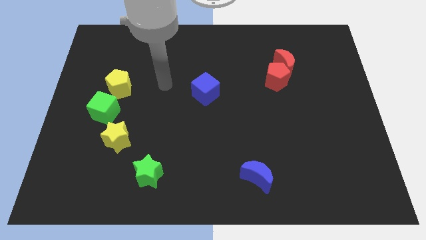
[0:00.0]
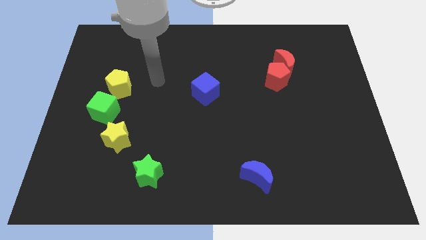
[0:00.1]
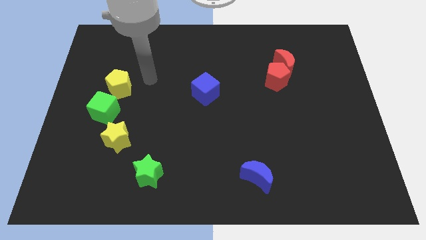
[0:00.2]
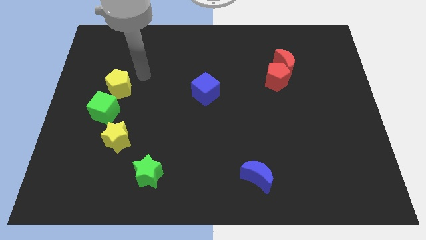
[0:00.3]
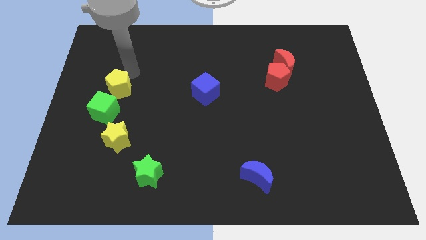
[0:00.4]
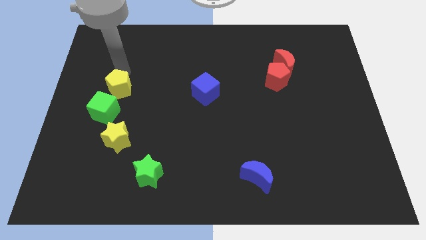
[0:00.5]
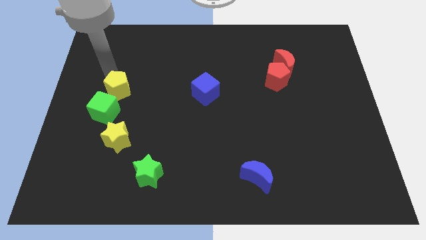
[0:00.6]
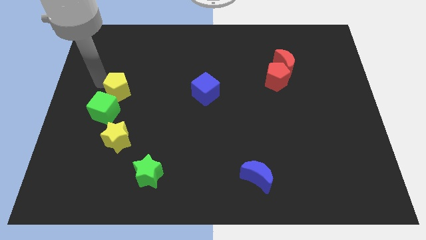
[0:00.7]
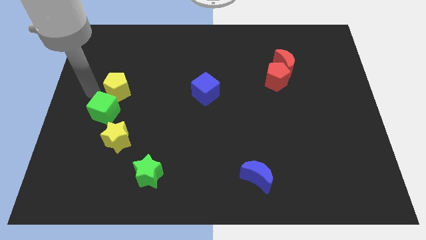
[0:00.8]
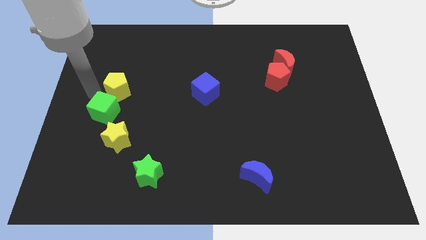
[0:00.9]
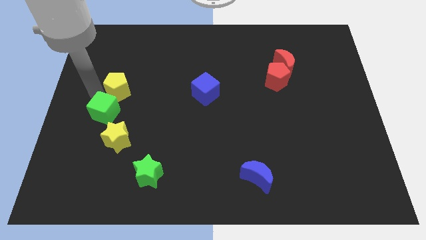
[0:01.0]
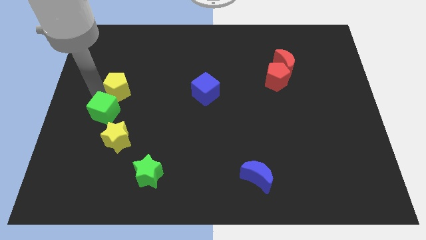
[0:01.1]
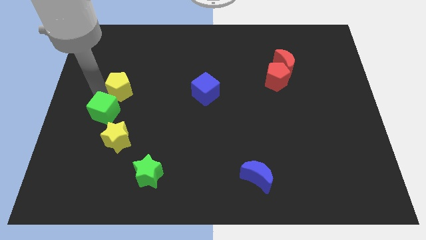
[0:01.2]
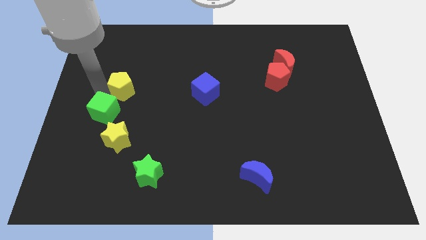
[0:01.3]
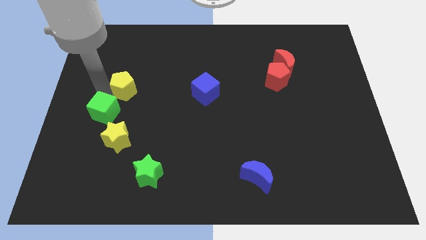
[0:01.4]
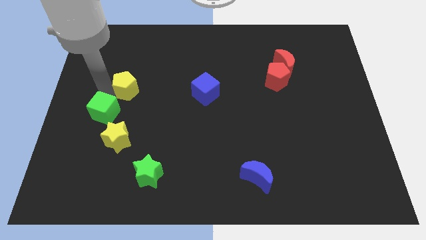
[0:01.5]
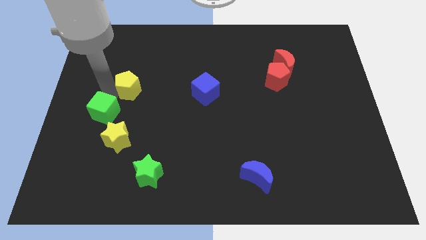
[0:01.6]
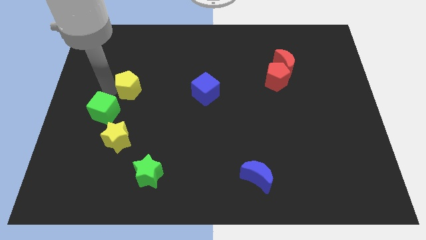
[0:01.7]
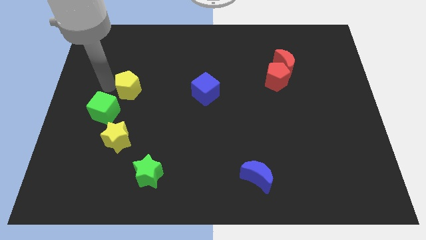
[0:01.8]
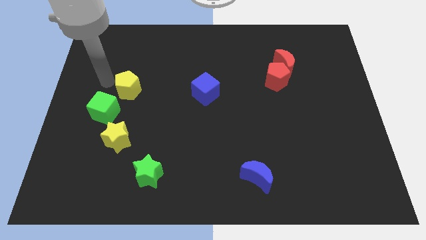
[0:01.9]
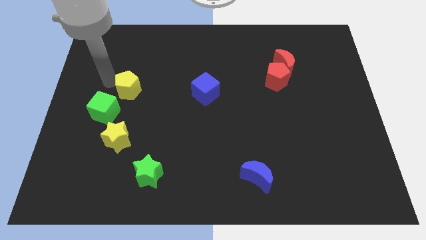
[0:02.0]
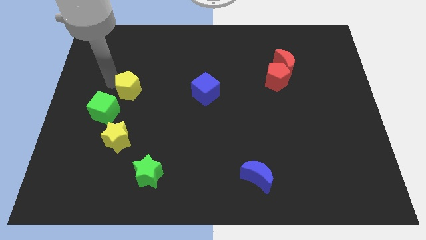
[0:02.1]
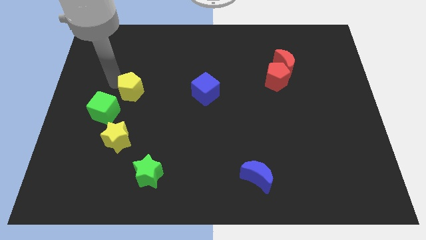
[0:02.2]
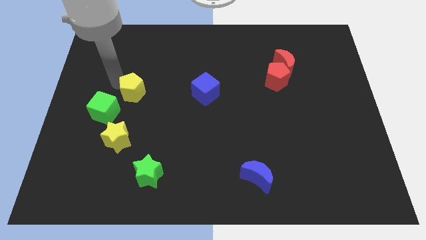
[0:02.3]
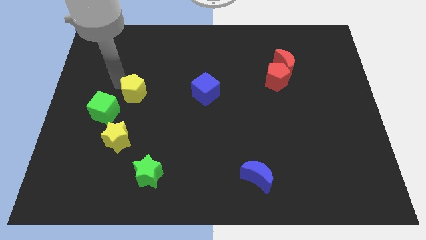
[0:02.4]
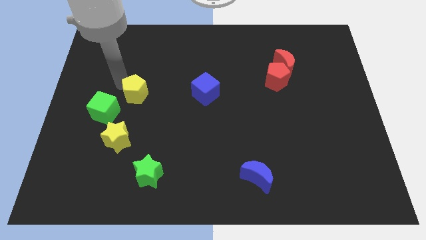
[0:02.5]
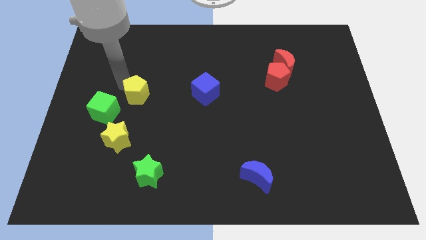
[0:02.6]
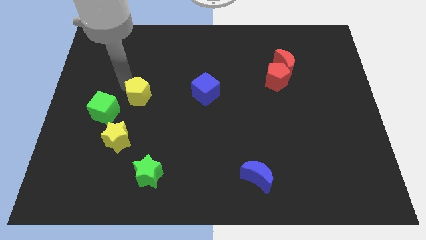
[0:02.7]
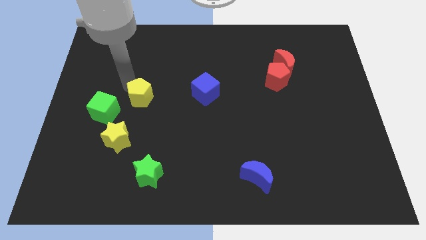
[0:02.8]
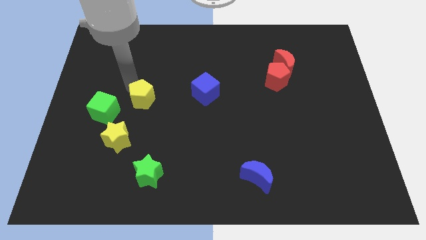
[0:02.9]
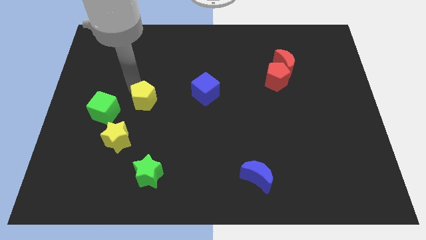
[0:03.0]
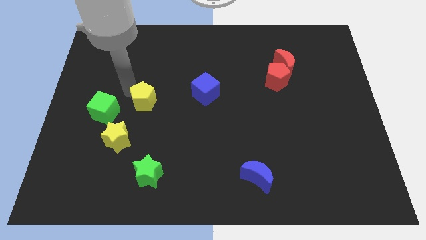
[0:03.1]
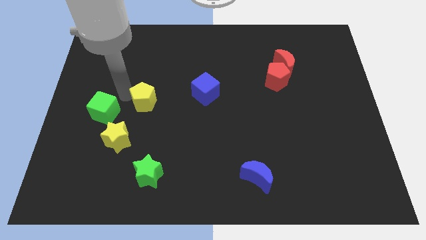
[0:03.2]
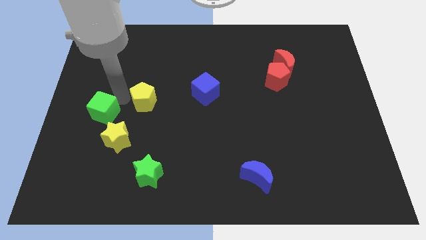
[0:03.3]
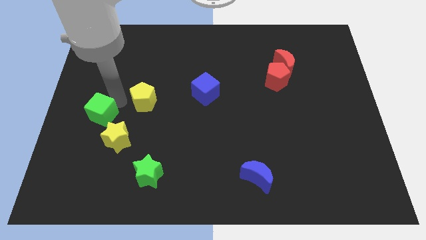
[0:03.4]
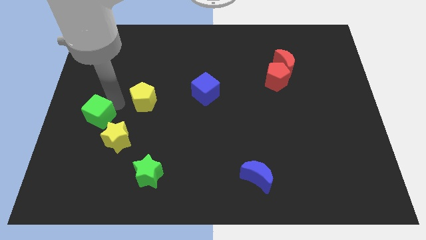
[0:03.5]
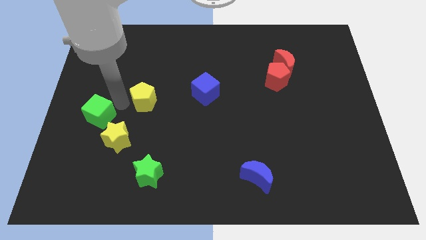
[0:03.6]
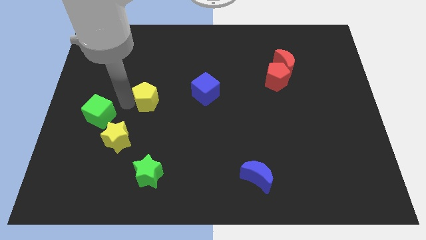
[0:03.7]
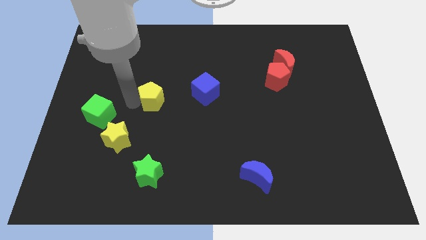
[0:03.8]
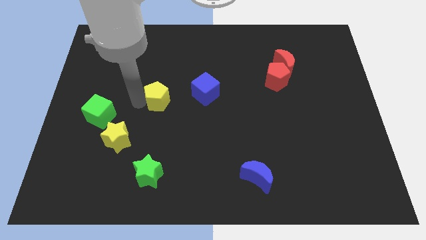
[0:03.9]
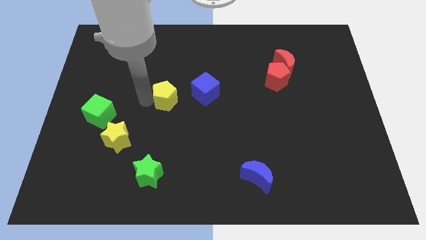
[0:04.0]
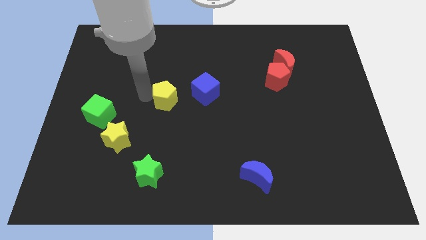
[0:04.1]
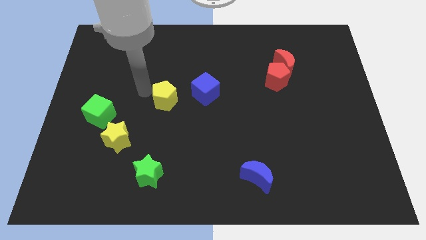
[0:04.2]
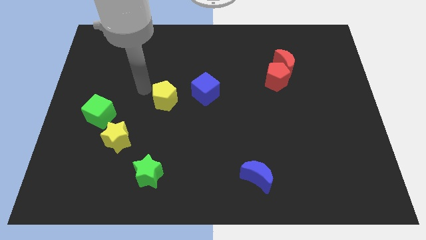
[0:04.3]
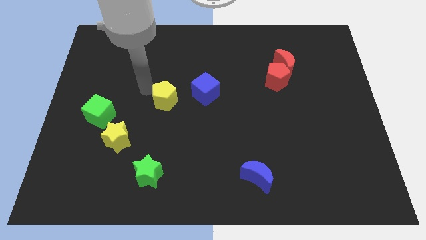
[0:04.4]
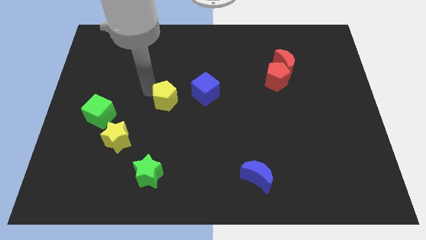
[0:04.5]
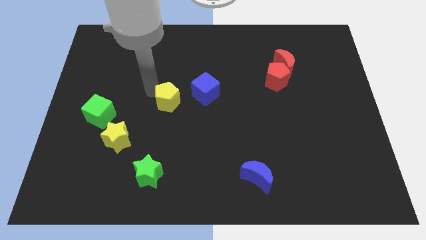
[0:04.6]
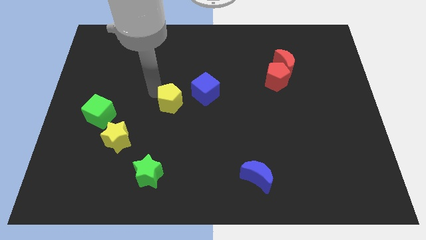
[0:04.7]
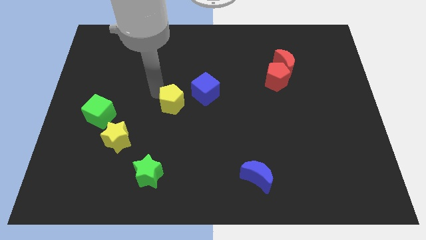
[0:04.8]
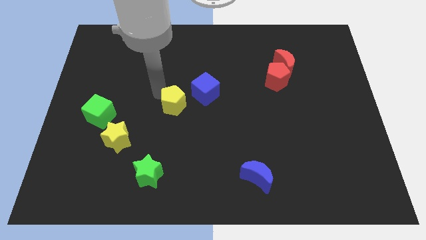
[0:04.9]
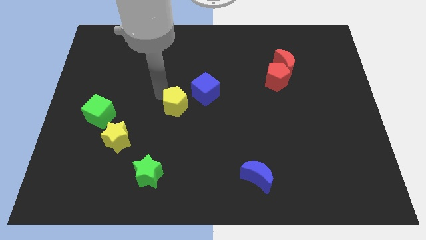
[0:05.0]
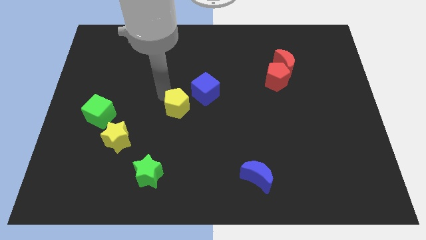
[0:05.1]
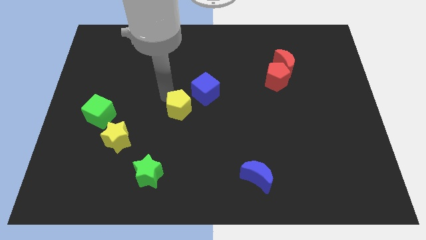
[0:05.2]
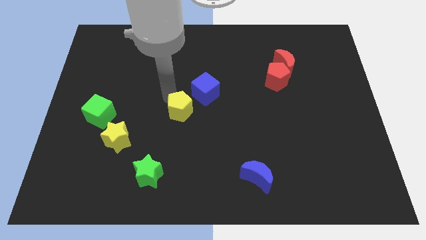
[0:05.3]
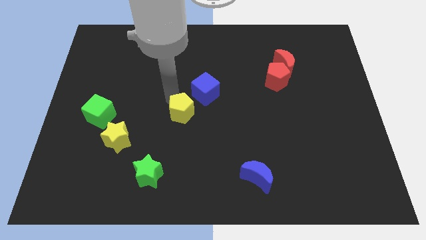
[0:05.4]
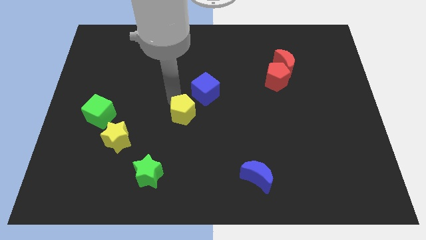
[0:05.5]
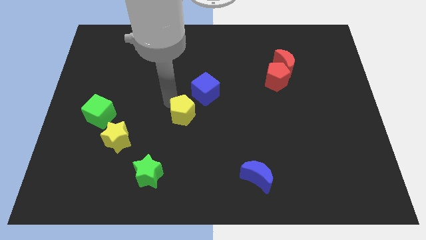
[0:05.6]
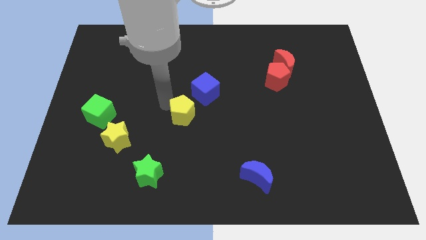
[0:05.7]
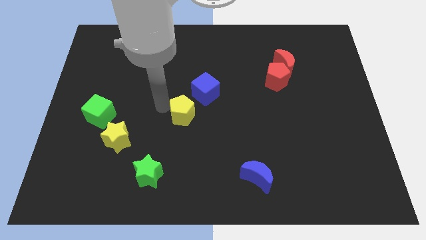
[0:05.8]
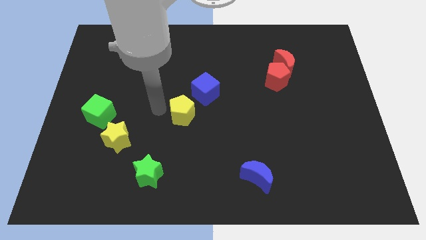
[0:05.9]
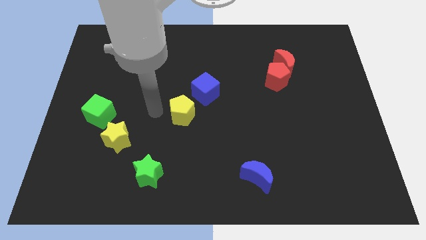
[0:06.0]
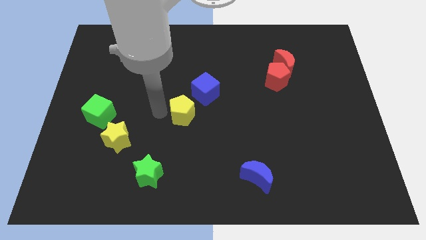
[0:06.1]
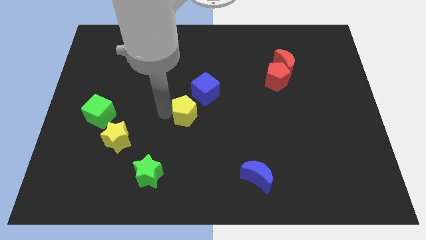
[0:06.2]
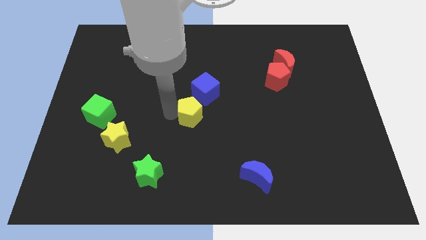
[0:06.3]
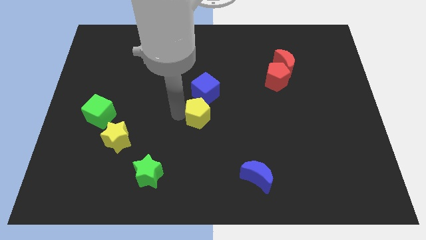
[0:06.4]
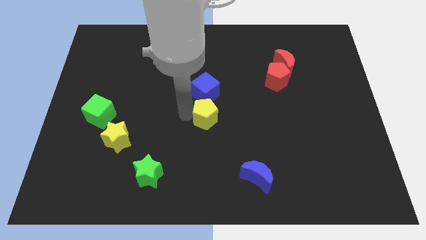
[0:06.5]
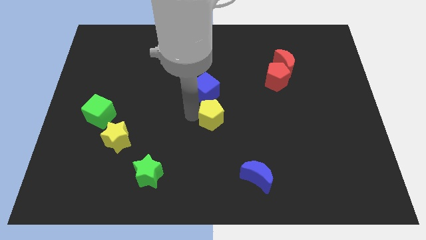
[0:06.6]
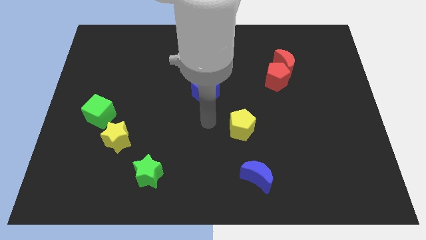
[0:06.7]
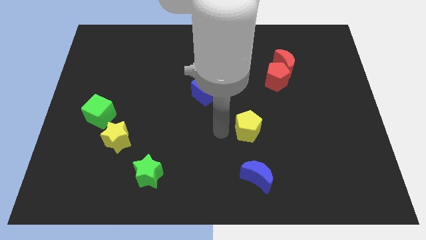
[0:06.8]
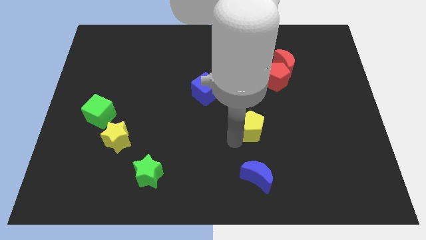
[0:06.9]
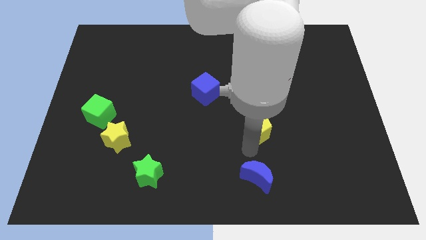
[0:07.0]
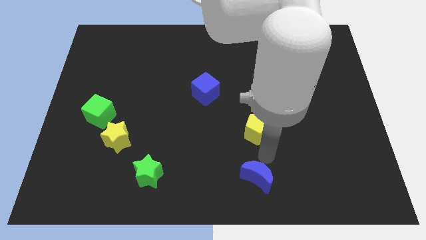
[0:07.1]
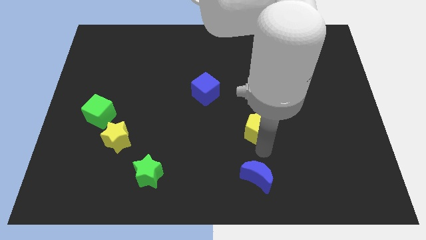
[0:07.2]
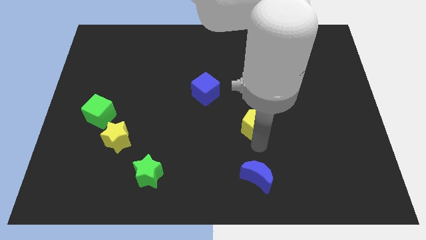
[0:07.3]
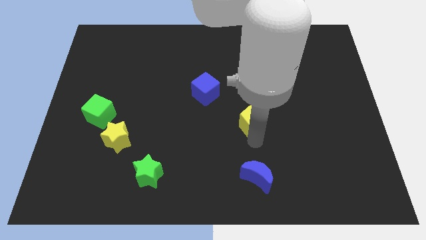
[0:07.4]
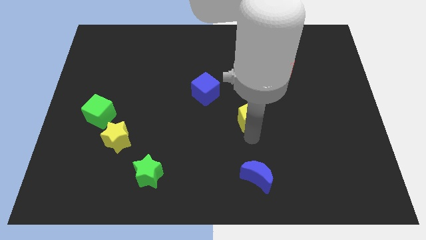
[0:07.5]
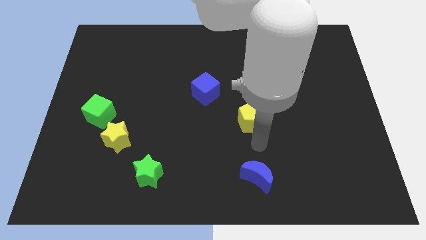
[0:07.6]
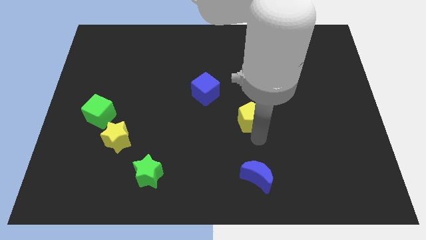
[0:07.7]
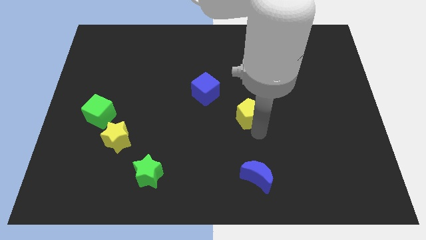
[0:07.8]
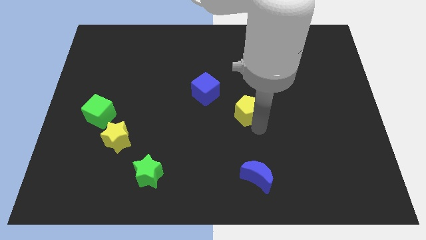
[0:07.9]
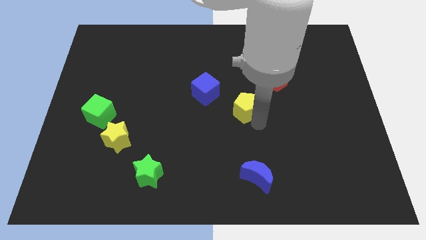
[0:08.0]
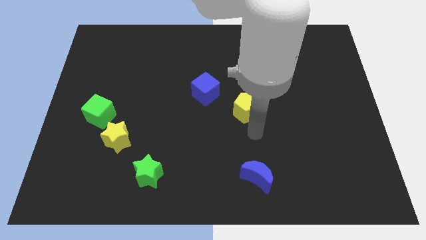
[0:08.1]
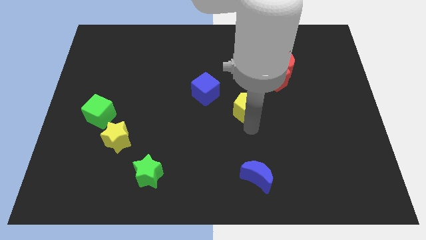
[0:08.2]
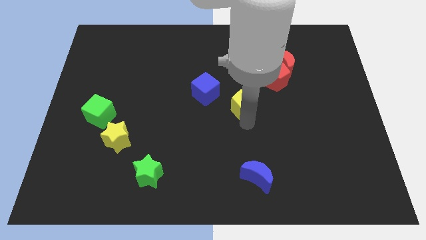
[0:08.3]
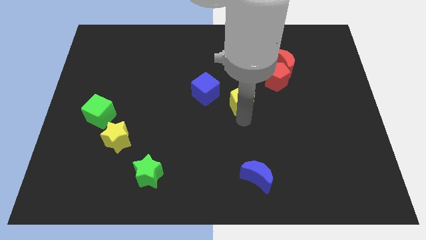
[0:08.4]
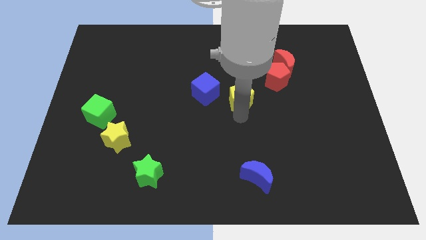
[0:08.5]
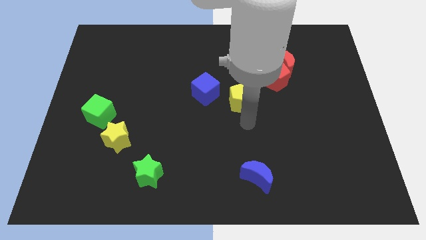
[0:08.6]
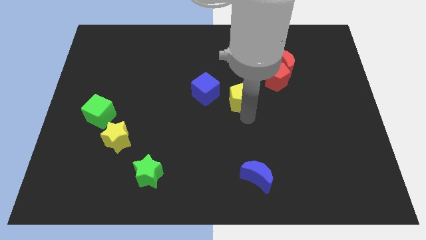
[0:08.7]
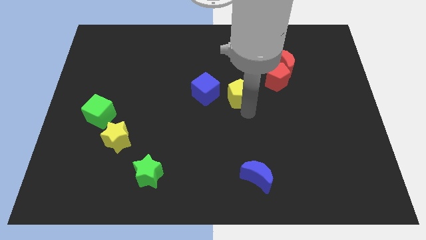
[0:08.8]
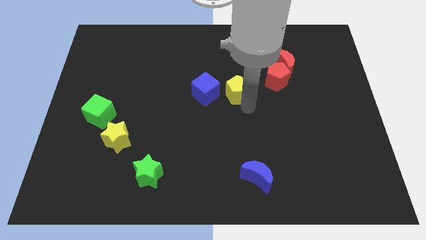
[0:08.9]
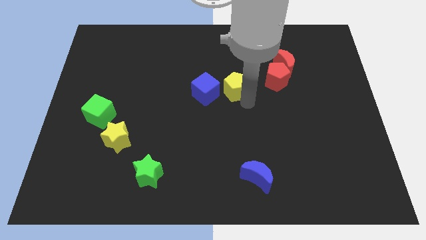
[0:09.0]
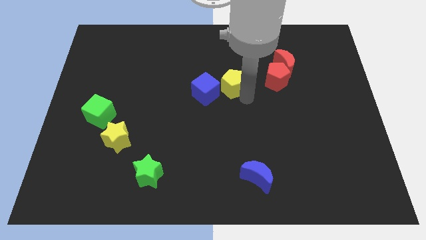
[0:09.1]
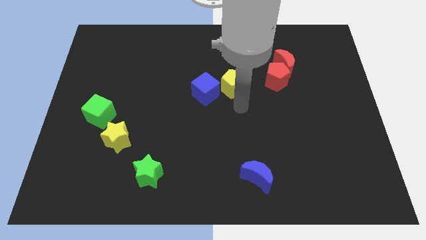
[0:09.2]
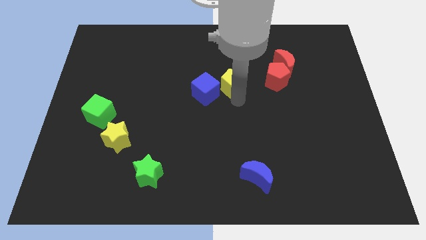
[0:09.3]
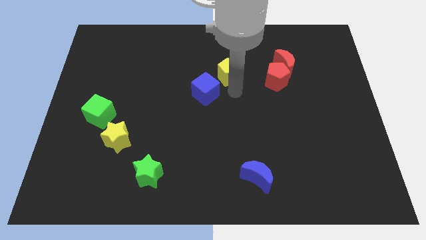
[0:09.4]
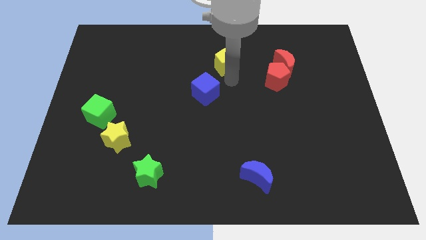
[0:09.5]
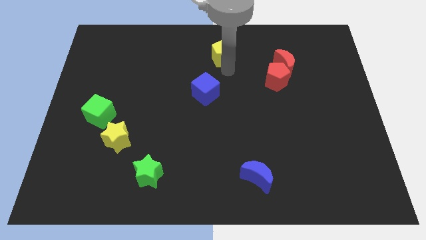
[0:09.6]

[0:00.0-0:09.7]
put the yellow pentagon to the towards your base
